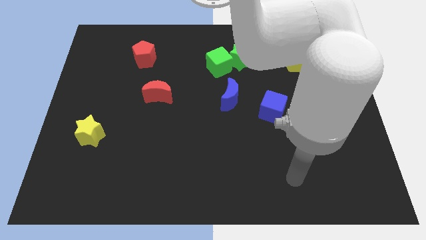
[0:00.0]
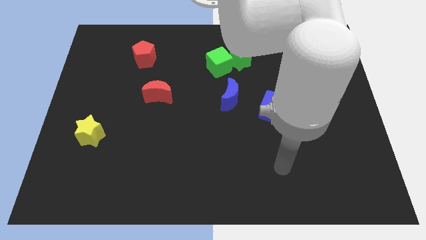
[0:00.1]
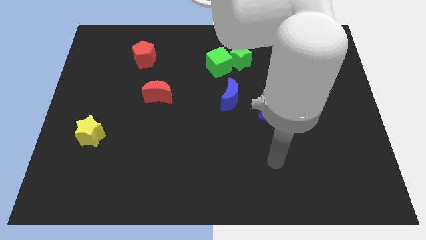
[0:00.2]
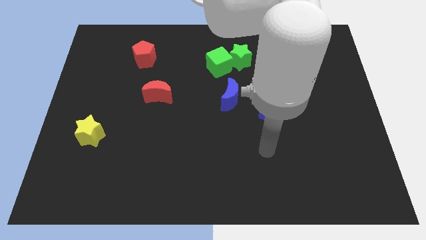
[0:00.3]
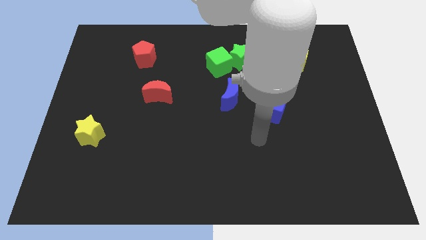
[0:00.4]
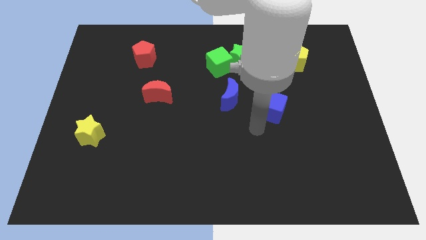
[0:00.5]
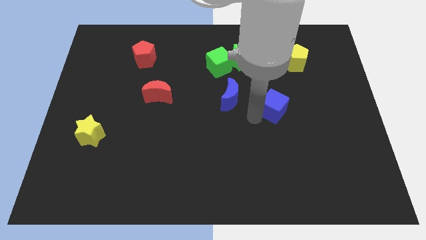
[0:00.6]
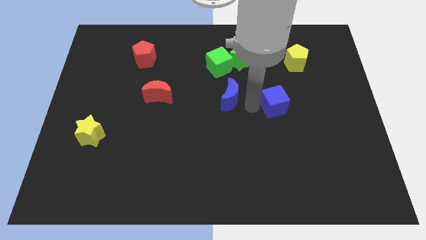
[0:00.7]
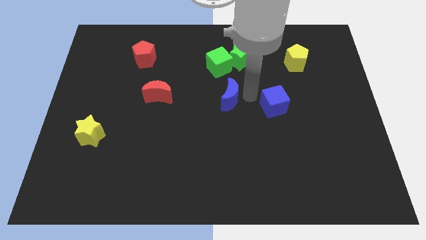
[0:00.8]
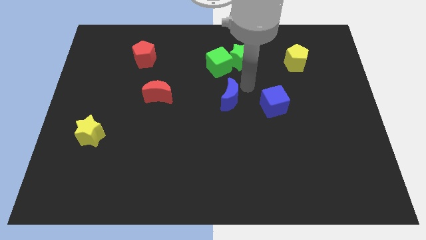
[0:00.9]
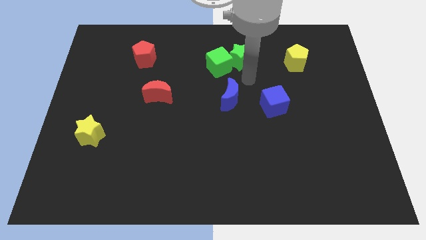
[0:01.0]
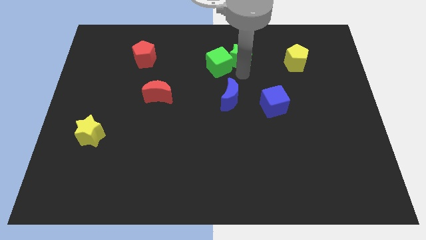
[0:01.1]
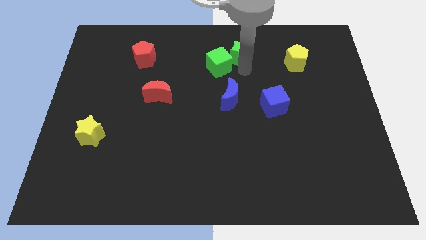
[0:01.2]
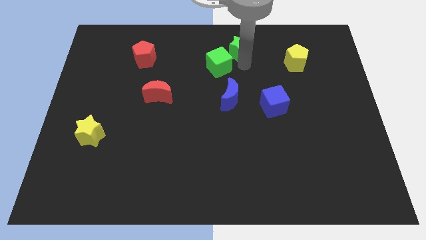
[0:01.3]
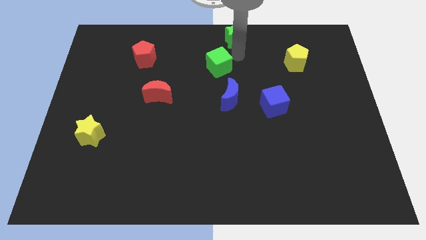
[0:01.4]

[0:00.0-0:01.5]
separate the green cube from the green star

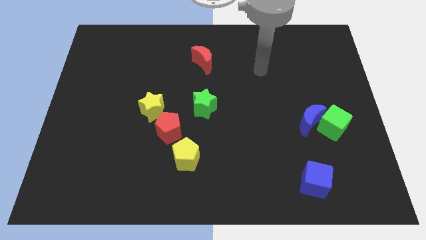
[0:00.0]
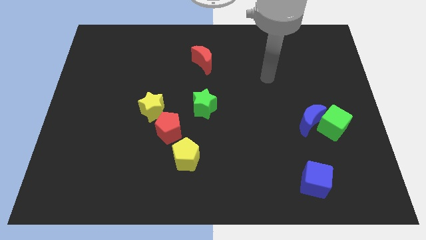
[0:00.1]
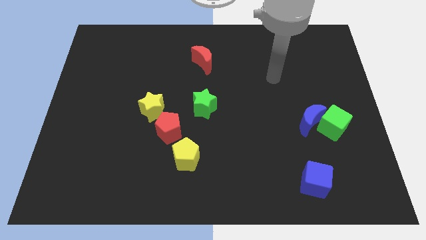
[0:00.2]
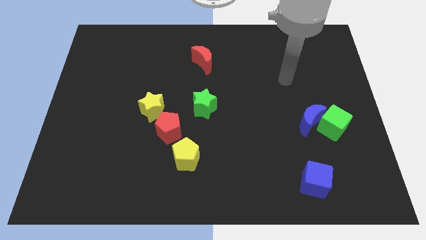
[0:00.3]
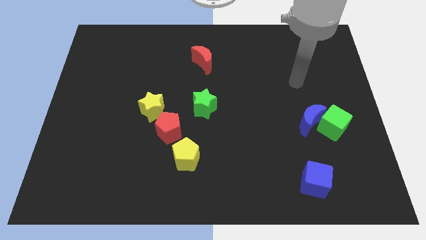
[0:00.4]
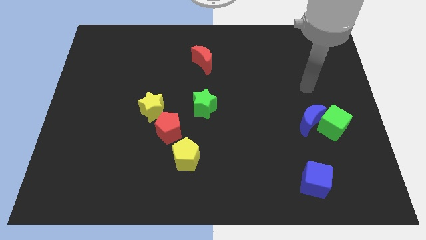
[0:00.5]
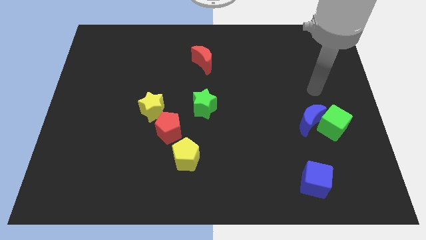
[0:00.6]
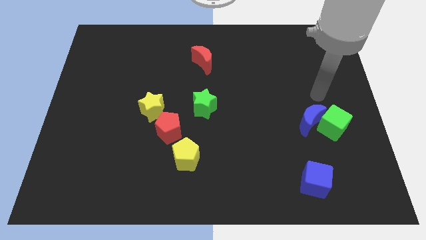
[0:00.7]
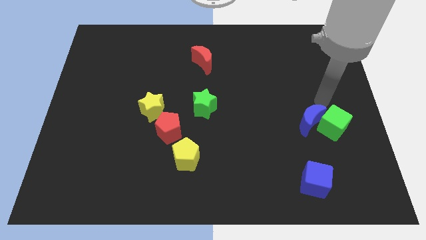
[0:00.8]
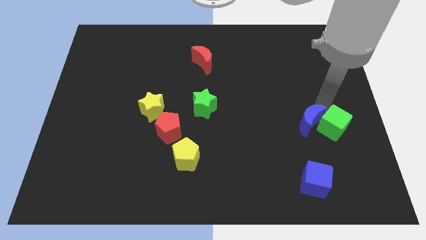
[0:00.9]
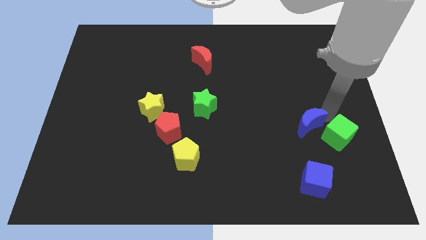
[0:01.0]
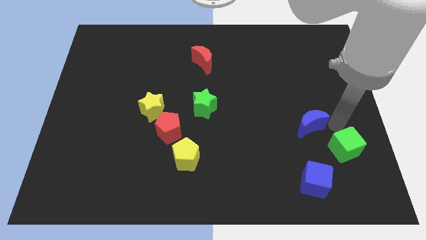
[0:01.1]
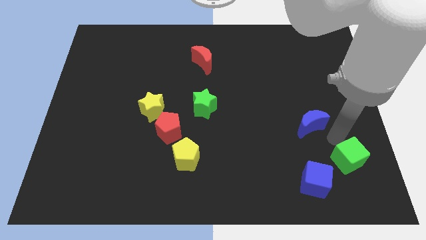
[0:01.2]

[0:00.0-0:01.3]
separate the blue moon from the green cube

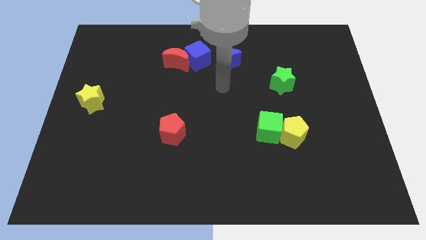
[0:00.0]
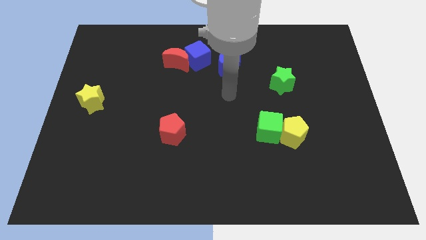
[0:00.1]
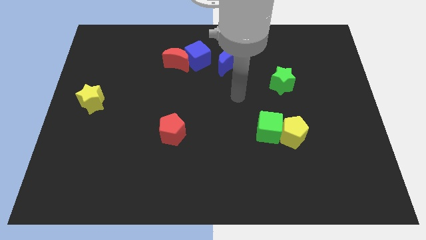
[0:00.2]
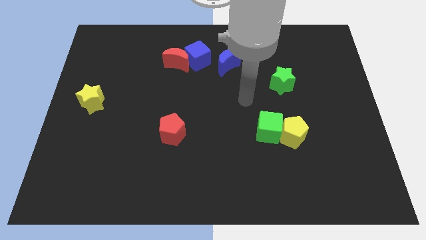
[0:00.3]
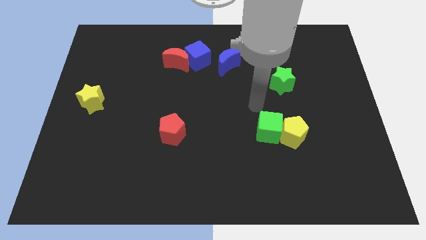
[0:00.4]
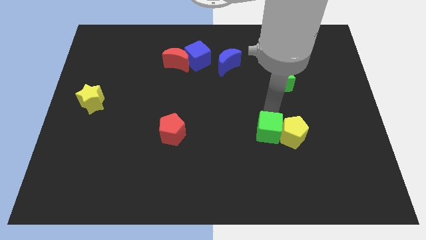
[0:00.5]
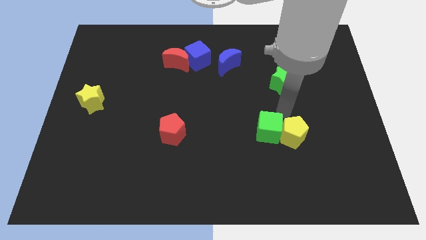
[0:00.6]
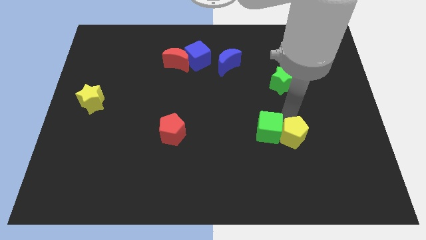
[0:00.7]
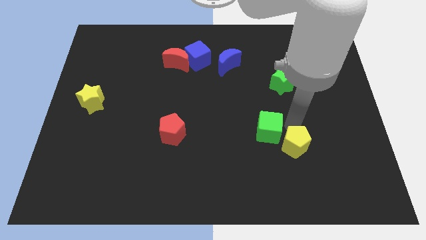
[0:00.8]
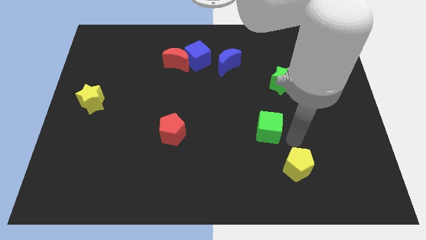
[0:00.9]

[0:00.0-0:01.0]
move the green cube away from the yellow pentagon

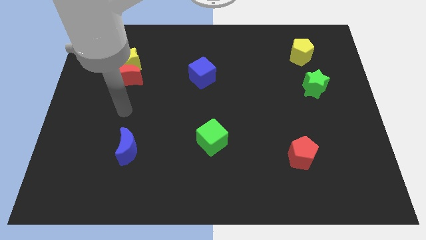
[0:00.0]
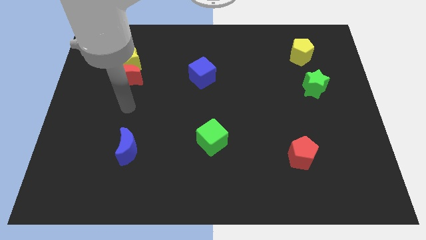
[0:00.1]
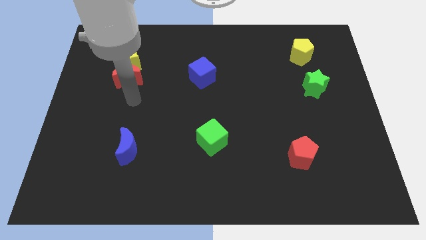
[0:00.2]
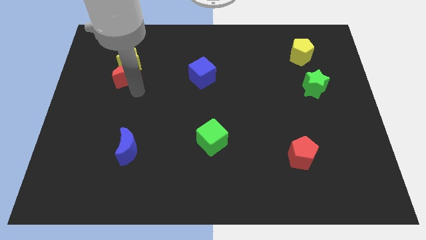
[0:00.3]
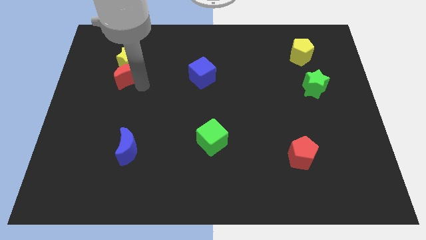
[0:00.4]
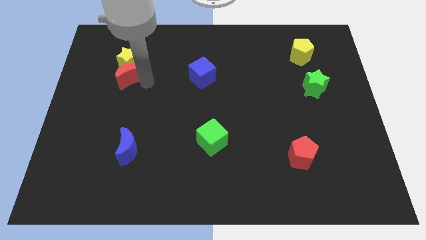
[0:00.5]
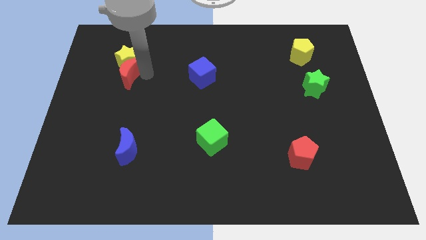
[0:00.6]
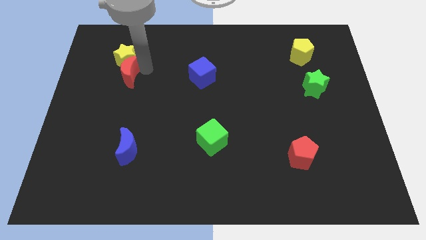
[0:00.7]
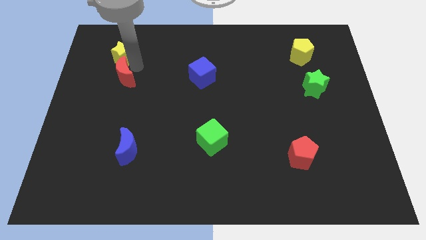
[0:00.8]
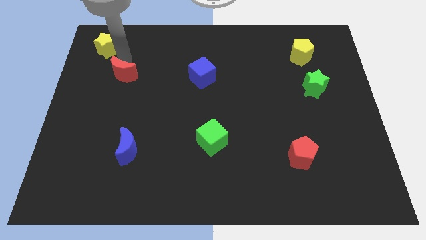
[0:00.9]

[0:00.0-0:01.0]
pull the red moon apart from the yellow star

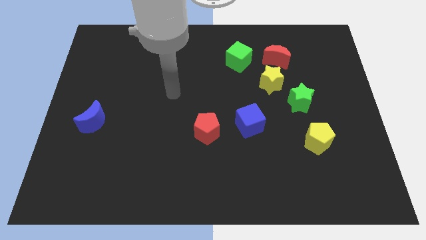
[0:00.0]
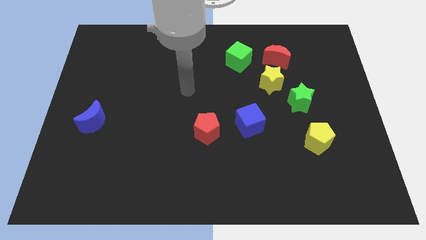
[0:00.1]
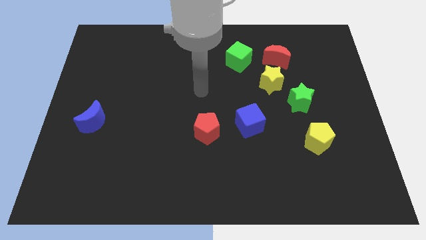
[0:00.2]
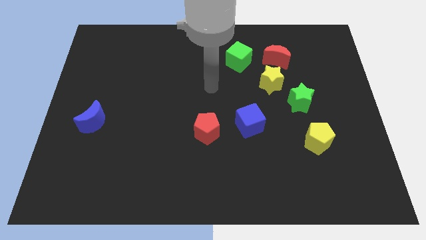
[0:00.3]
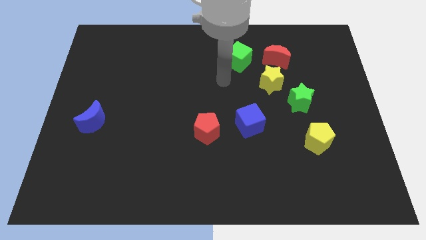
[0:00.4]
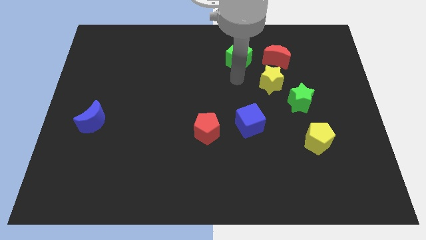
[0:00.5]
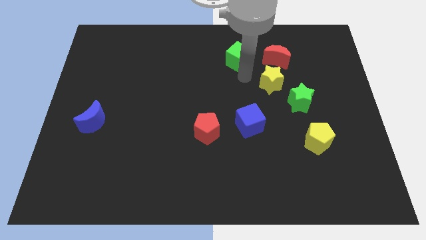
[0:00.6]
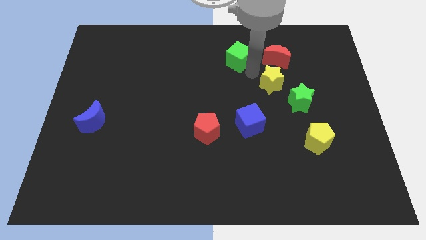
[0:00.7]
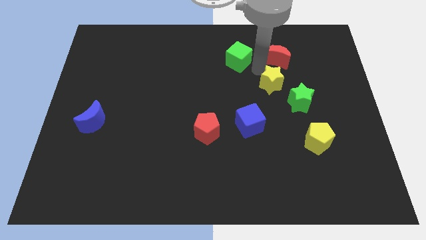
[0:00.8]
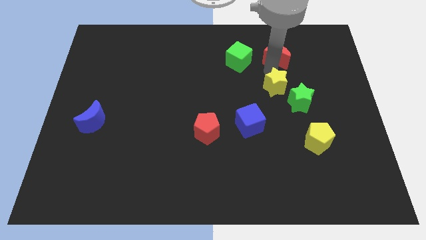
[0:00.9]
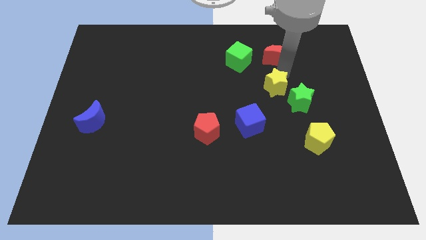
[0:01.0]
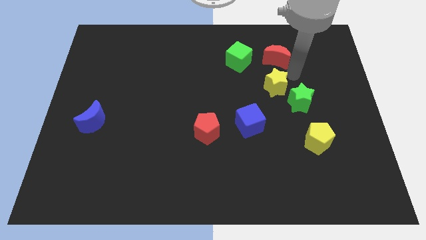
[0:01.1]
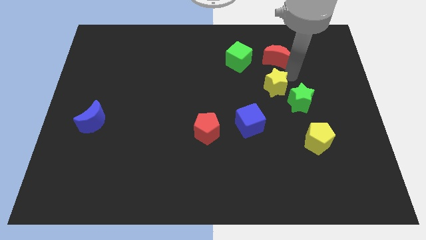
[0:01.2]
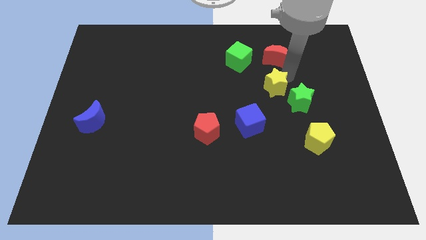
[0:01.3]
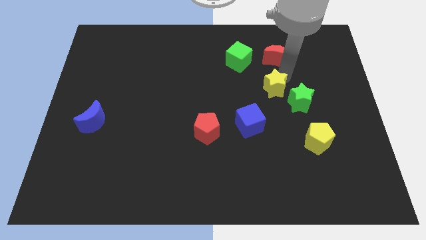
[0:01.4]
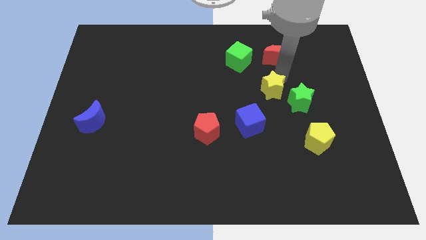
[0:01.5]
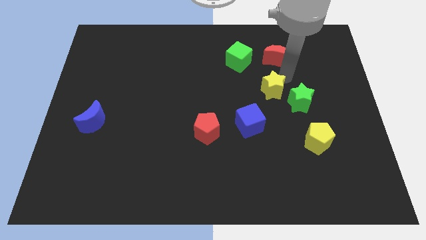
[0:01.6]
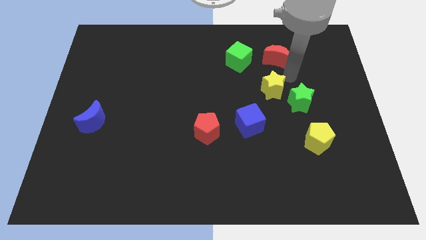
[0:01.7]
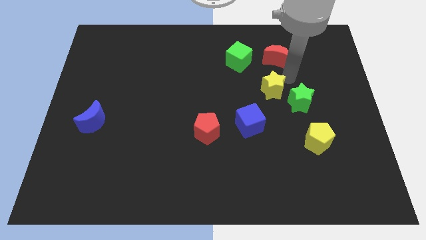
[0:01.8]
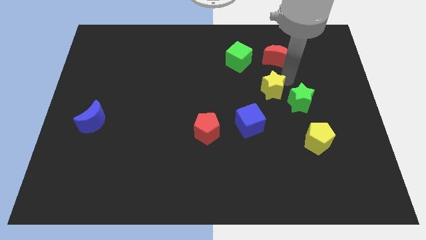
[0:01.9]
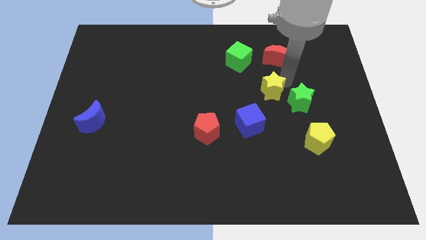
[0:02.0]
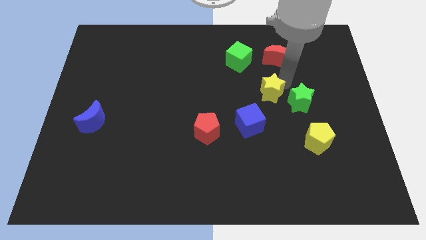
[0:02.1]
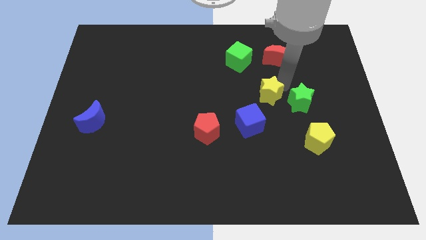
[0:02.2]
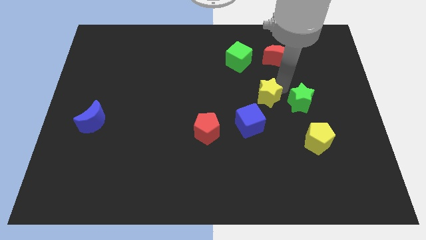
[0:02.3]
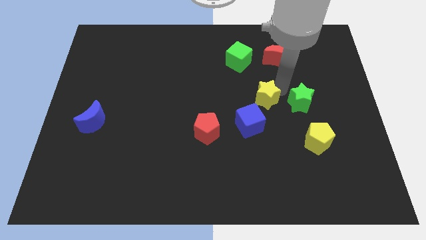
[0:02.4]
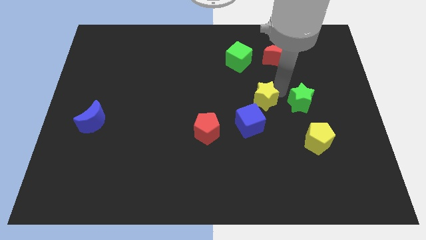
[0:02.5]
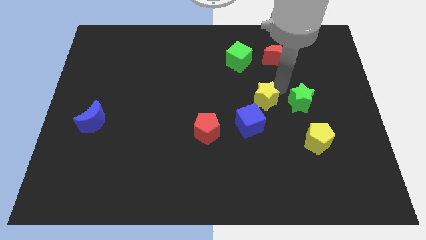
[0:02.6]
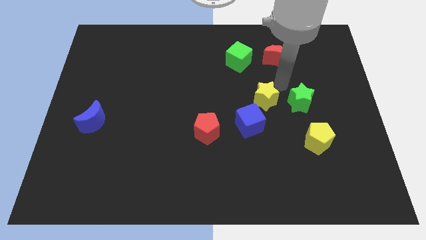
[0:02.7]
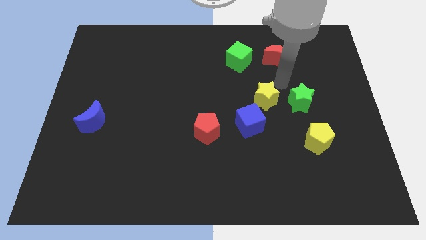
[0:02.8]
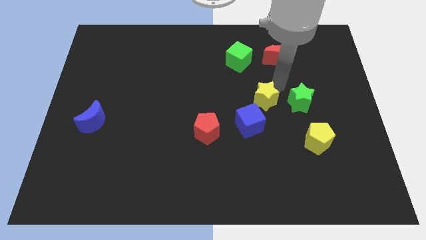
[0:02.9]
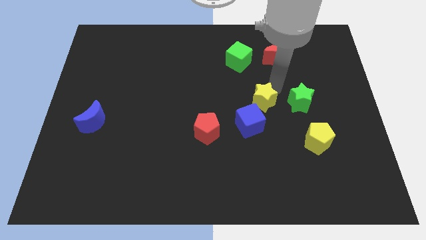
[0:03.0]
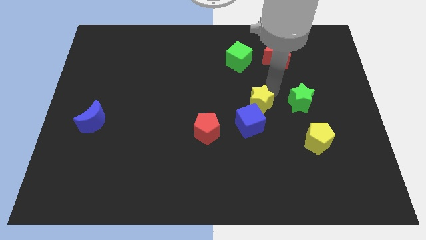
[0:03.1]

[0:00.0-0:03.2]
separate the yellow star from the red moon and green star

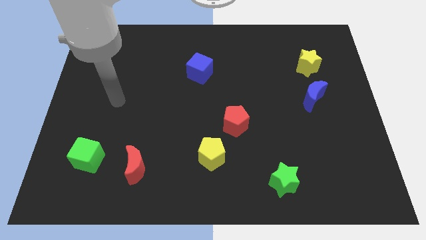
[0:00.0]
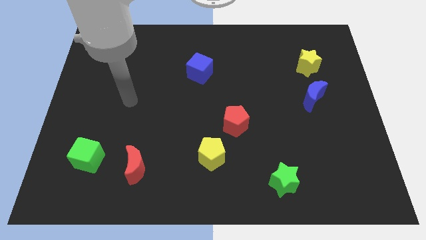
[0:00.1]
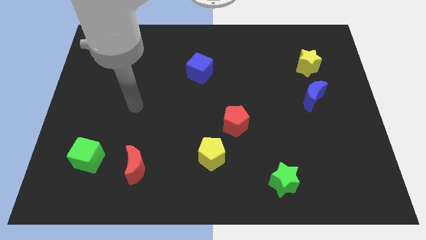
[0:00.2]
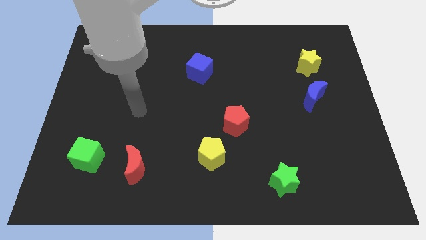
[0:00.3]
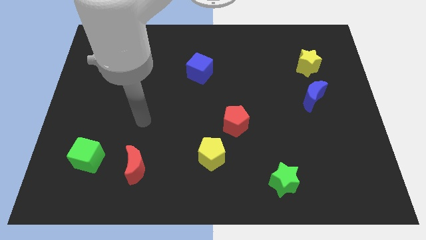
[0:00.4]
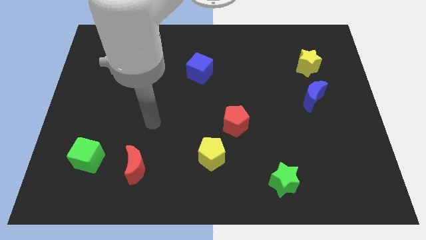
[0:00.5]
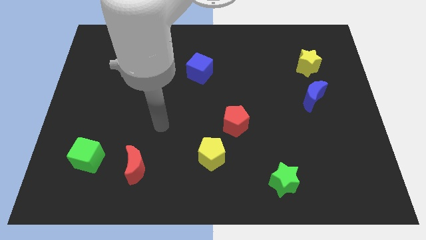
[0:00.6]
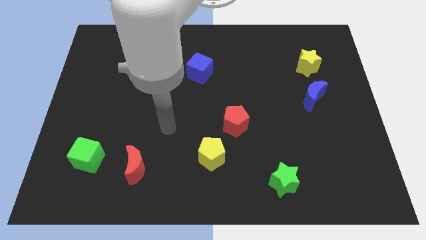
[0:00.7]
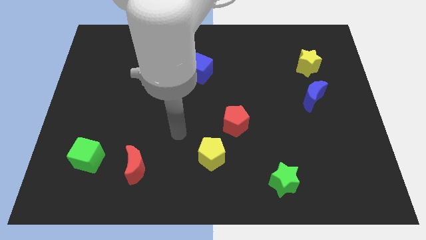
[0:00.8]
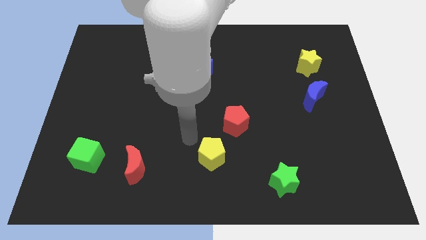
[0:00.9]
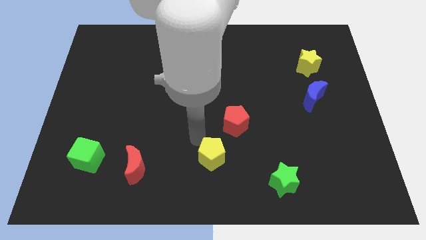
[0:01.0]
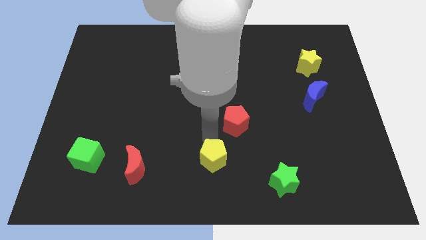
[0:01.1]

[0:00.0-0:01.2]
pull the red pentagon apart from the yellow pentagon
